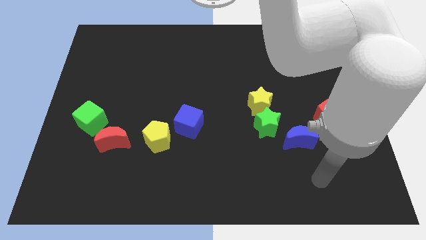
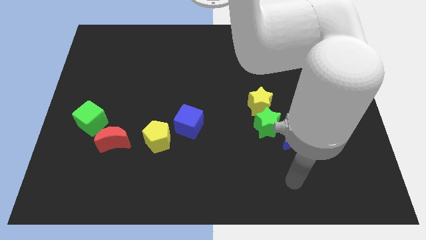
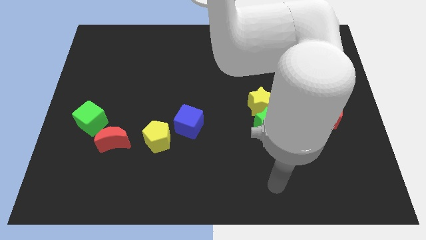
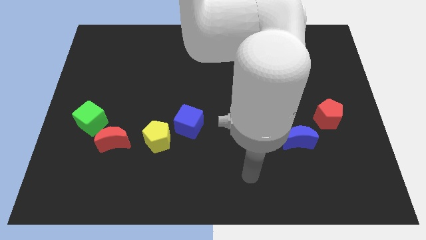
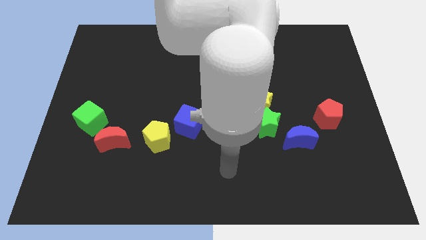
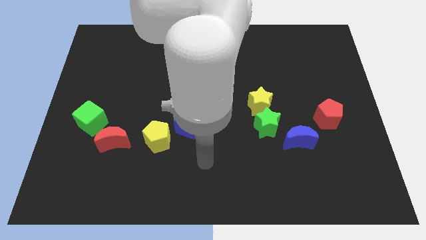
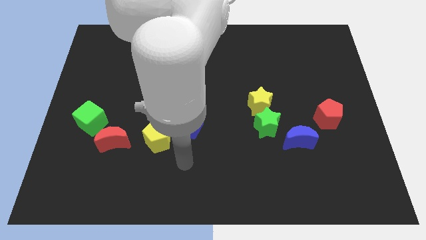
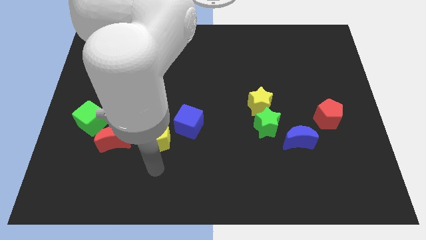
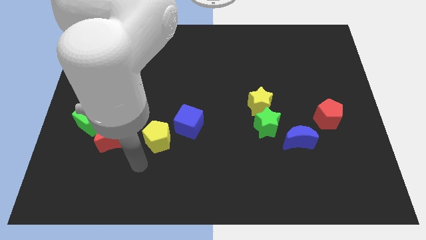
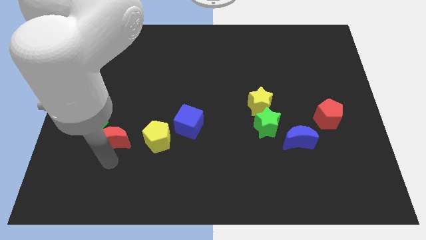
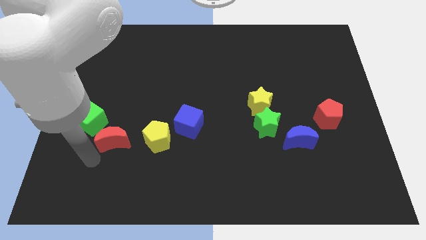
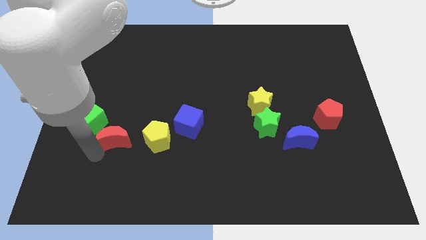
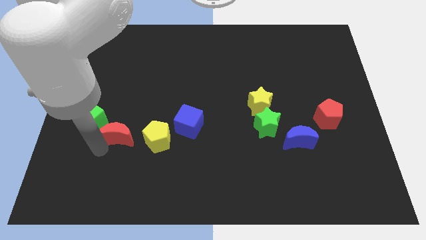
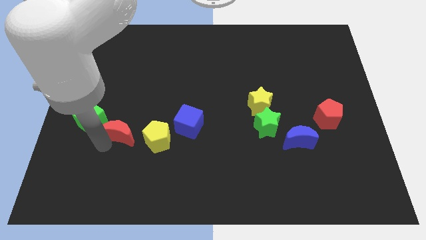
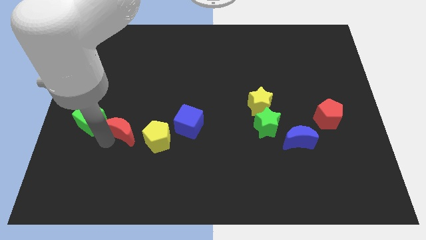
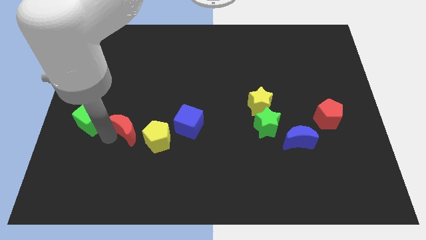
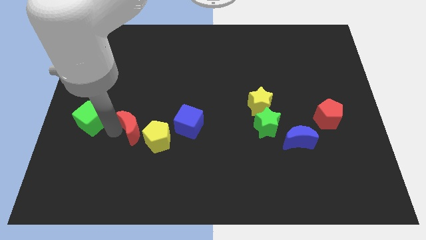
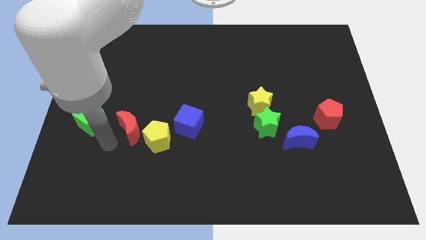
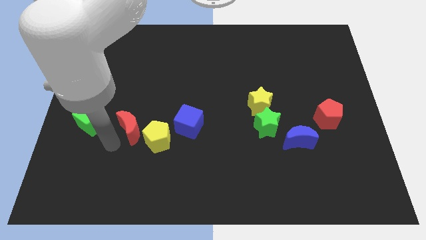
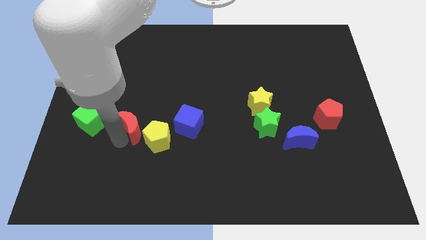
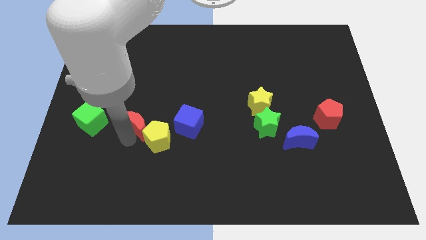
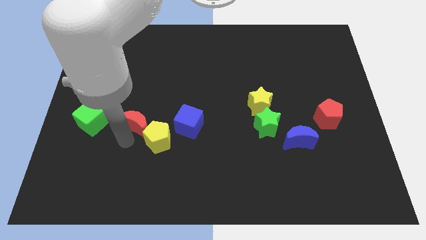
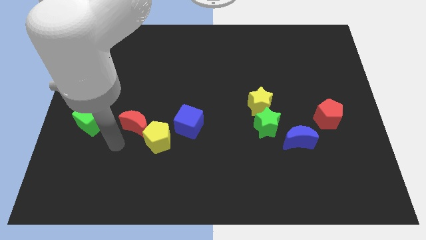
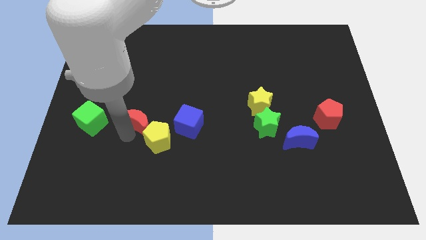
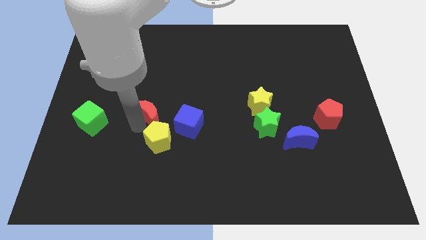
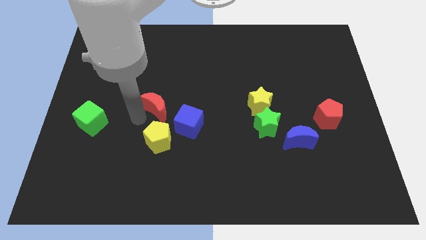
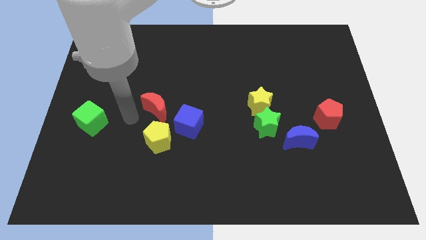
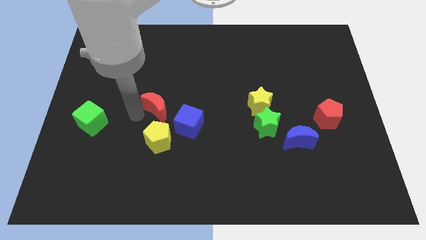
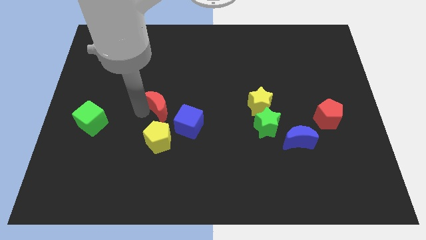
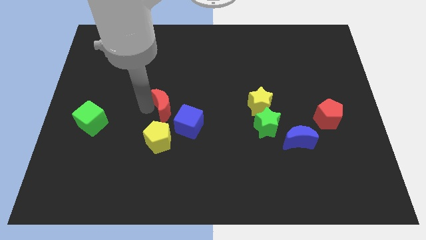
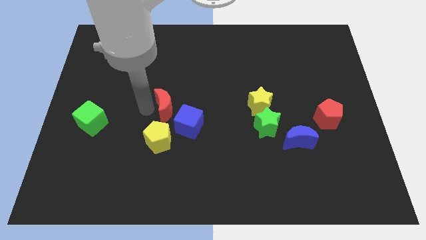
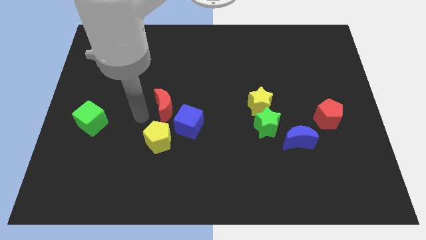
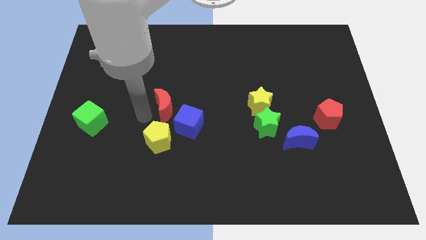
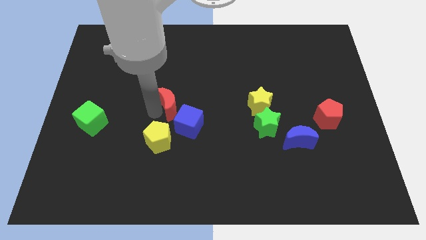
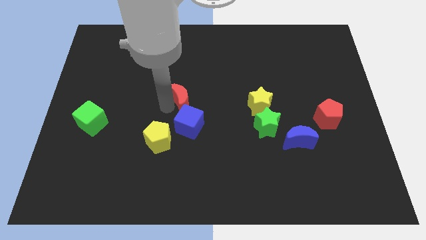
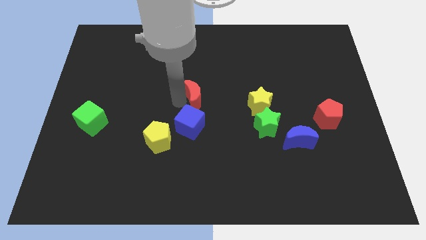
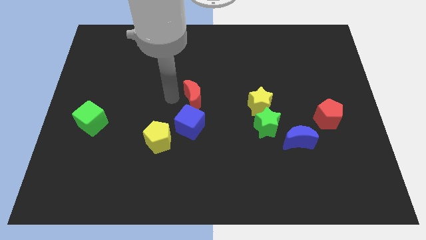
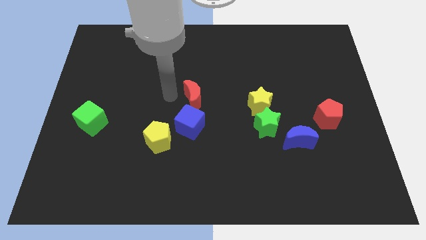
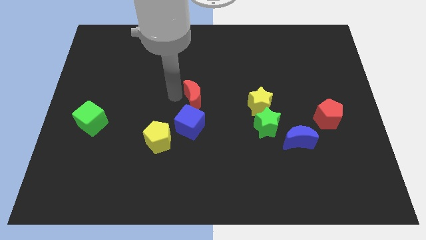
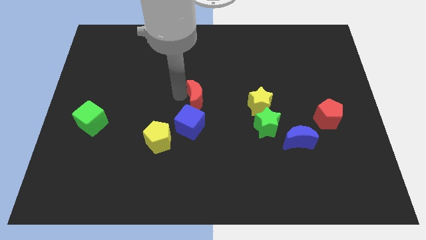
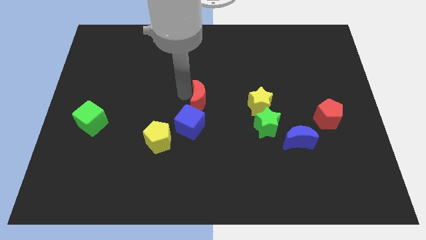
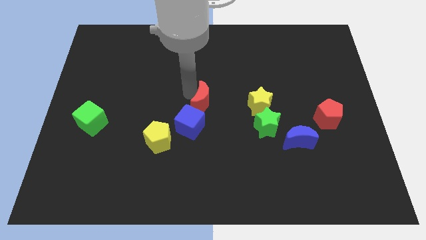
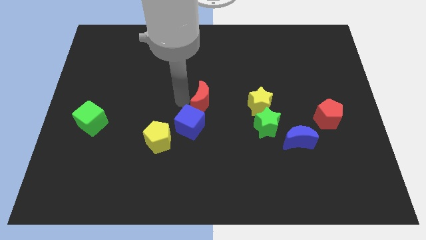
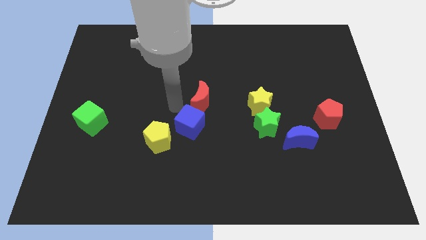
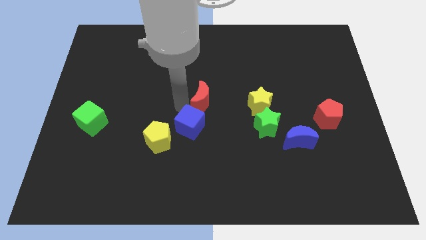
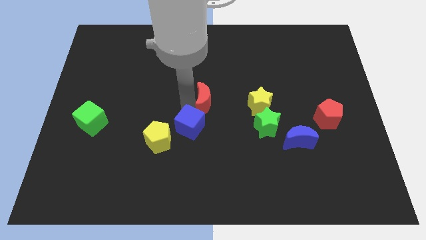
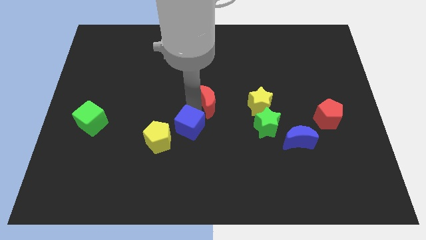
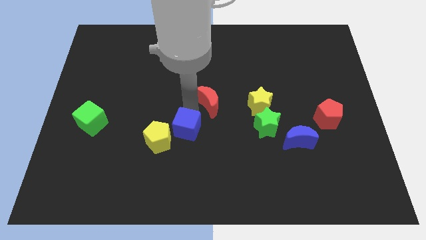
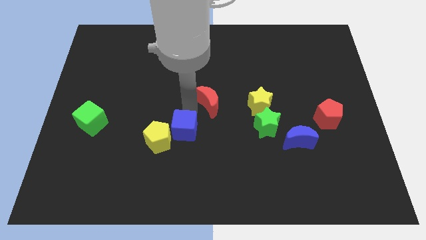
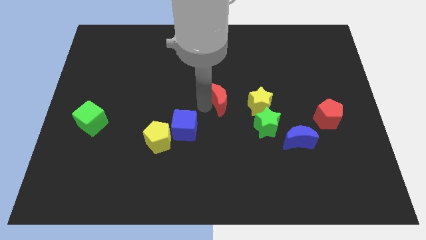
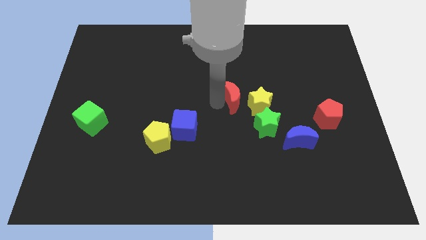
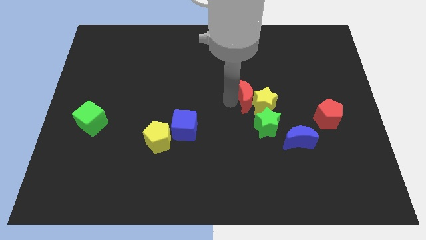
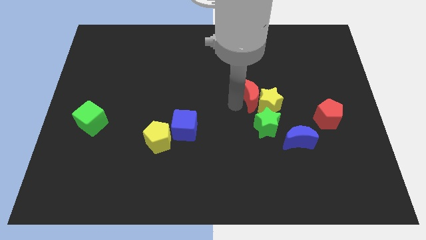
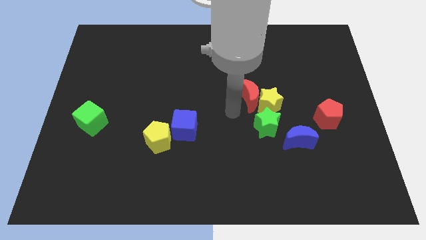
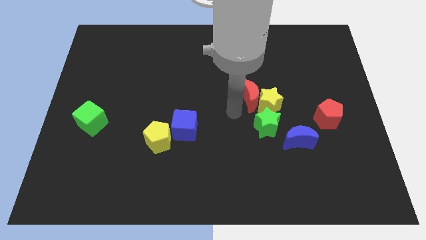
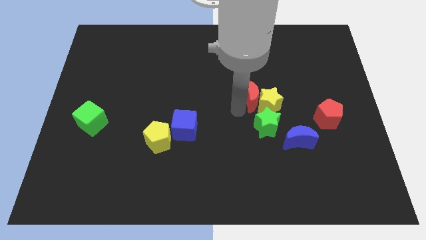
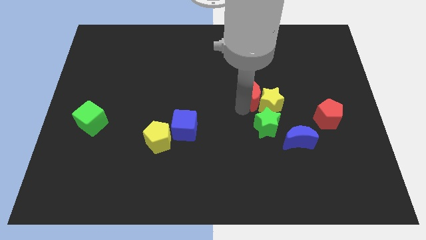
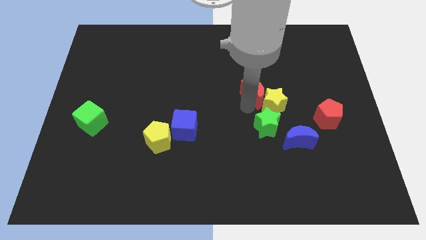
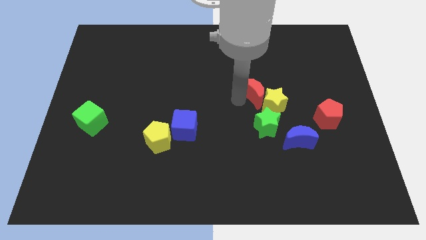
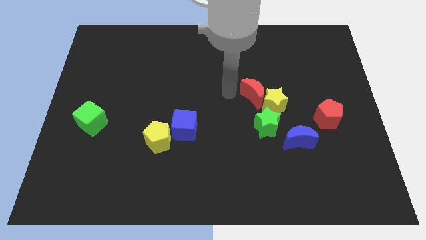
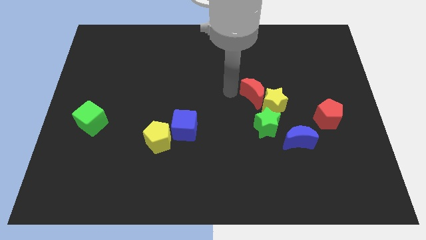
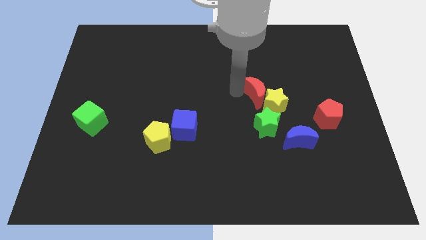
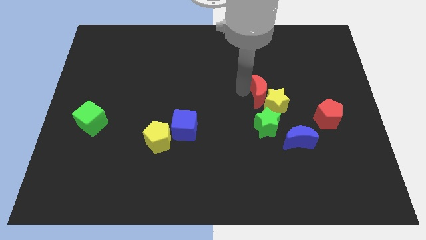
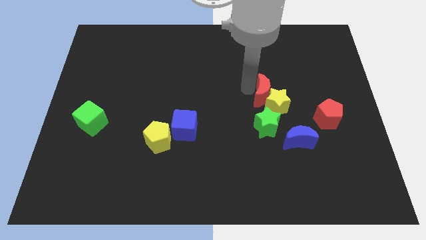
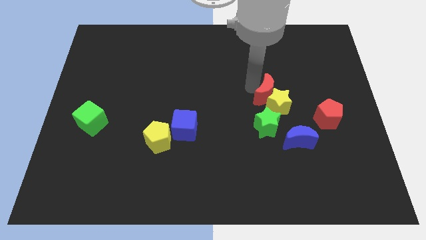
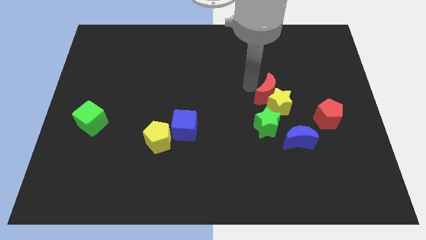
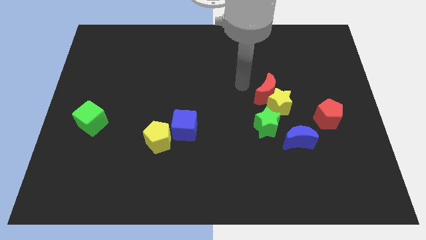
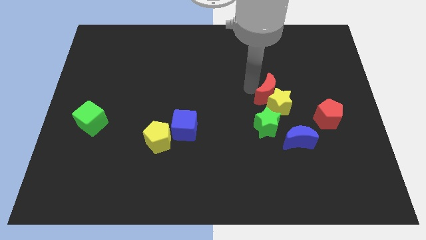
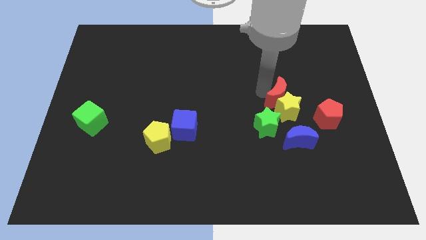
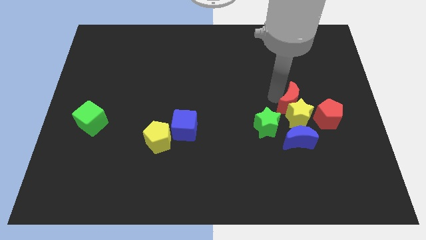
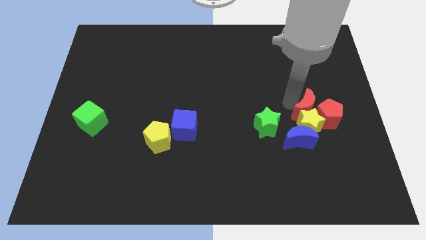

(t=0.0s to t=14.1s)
move the red moon to the red pentagon

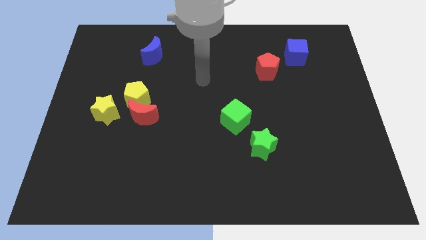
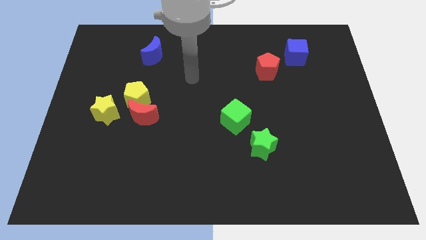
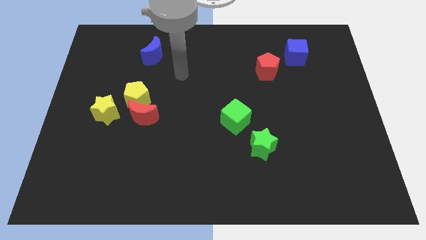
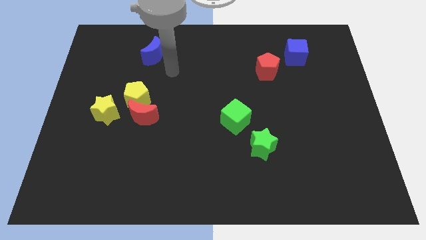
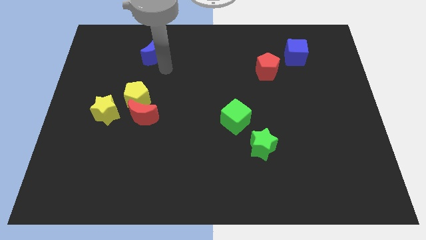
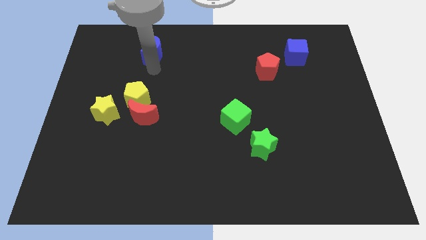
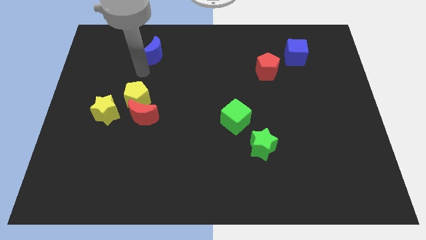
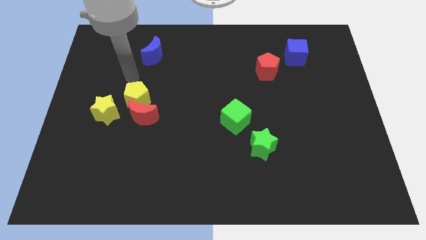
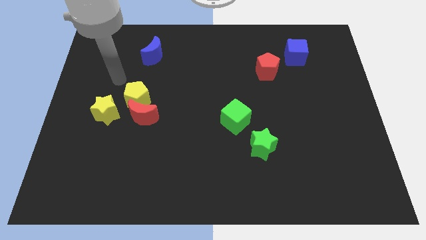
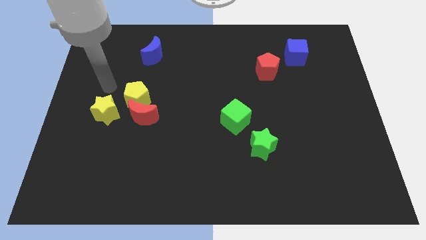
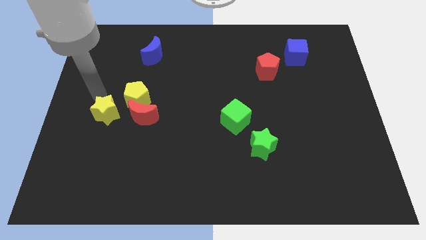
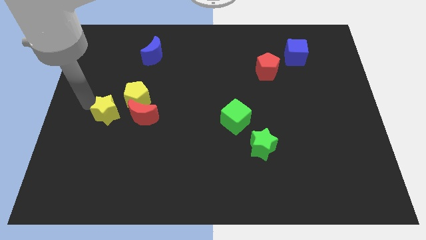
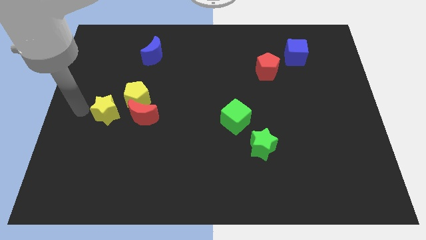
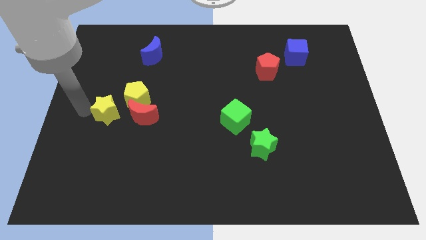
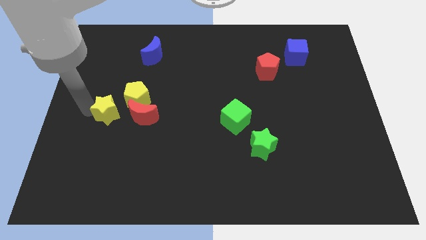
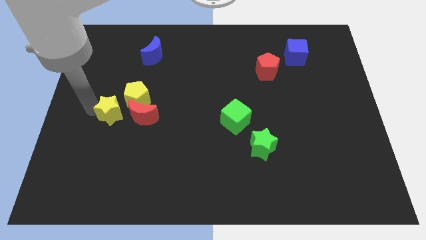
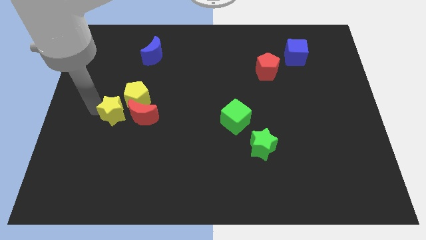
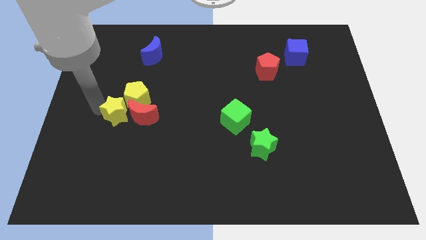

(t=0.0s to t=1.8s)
put the yellow star to the red moon
